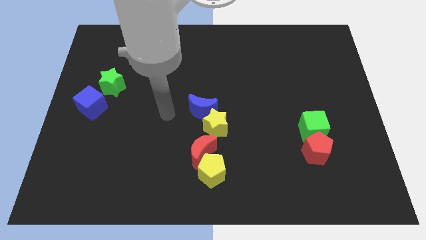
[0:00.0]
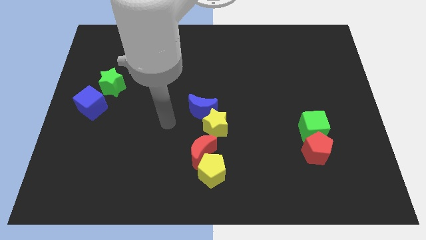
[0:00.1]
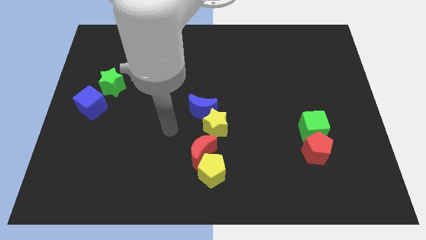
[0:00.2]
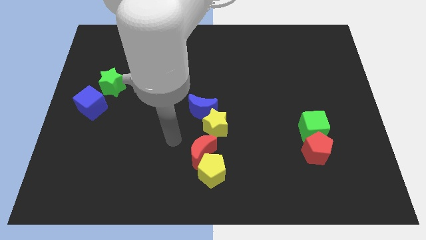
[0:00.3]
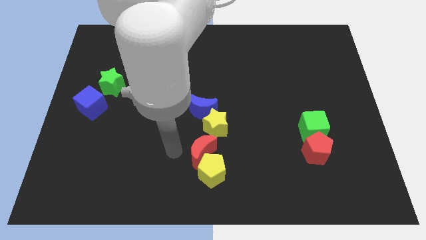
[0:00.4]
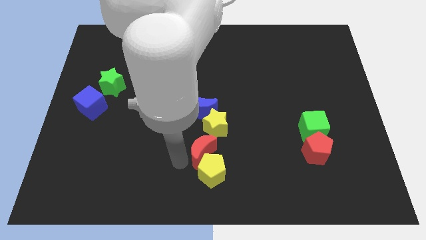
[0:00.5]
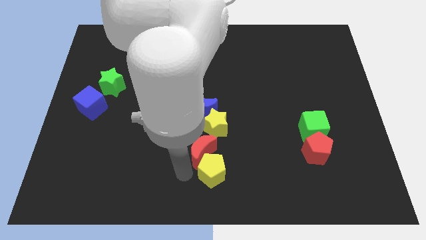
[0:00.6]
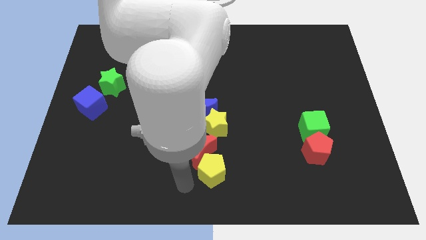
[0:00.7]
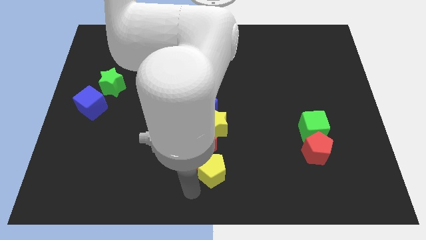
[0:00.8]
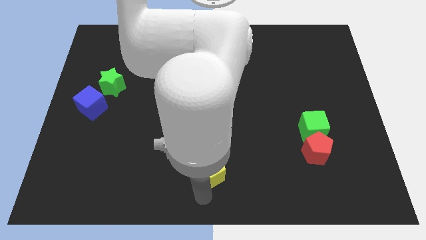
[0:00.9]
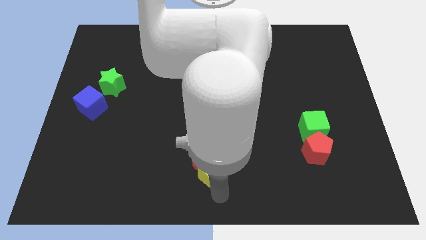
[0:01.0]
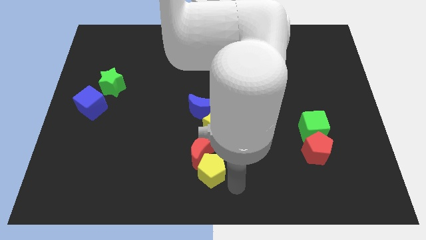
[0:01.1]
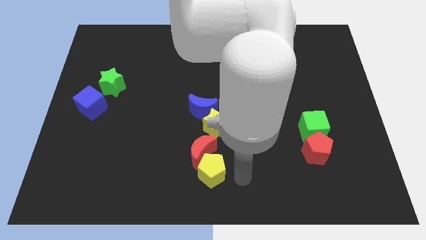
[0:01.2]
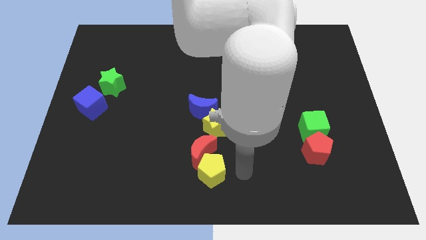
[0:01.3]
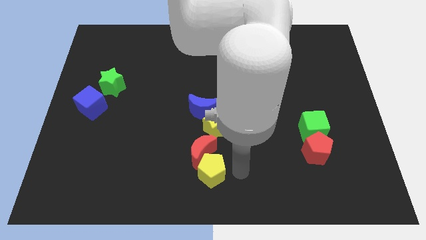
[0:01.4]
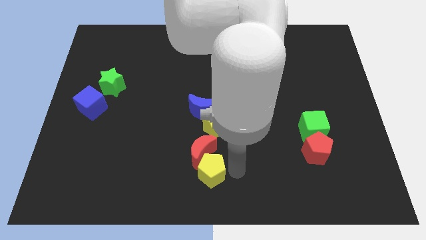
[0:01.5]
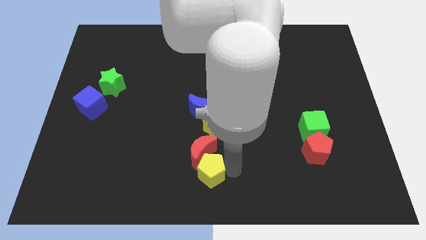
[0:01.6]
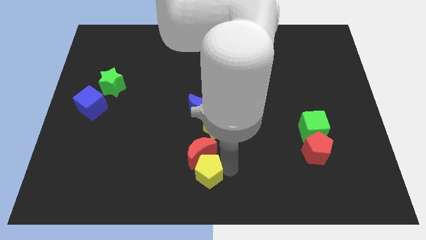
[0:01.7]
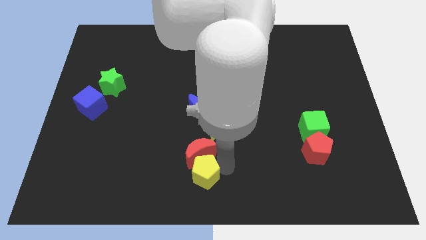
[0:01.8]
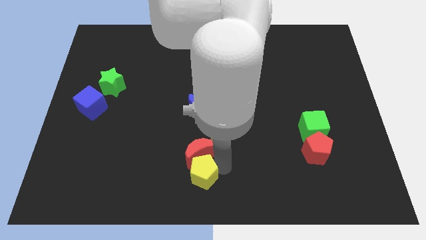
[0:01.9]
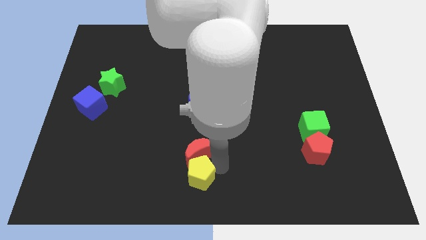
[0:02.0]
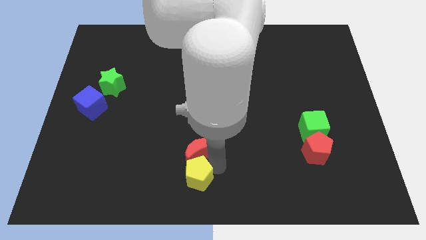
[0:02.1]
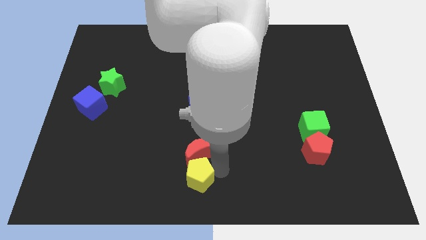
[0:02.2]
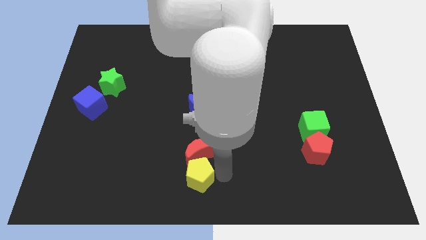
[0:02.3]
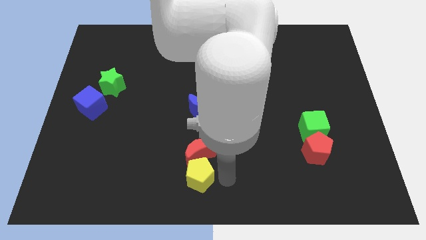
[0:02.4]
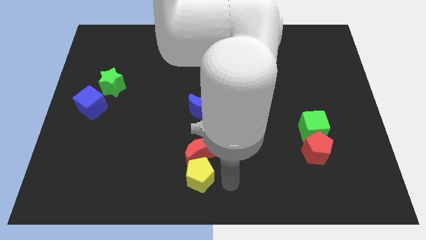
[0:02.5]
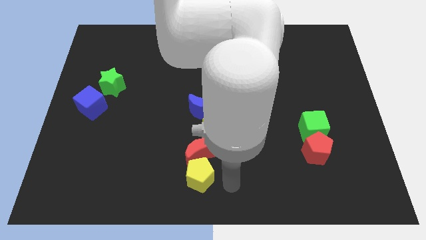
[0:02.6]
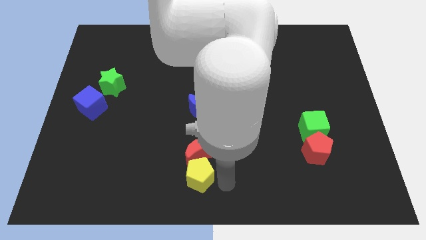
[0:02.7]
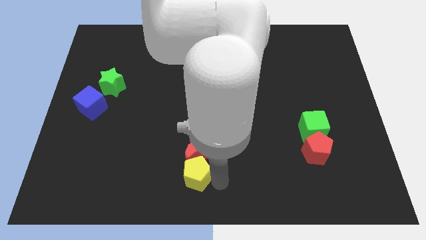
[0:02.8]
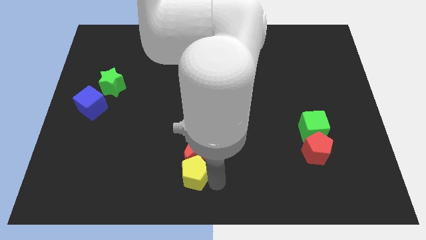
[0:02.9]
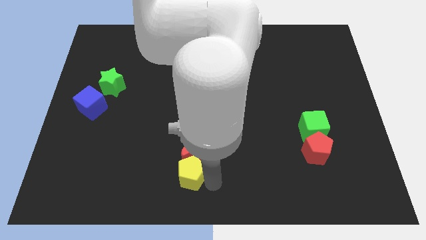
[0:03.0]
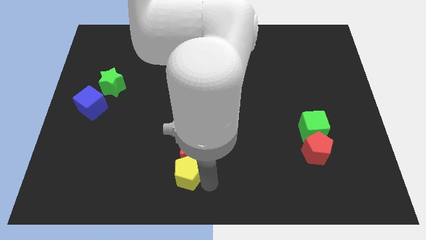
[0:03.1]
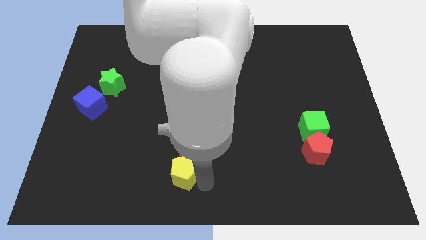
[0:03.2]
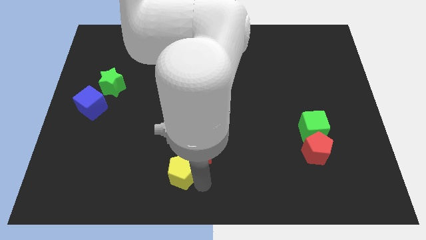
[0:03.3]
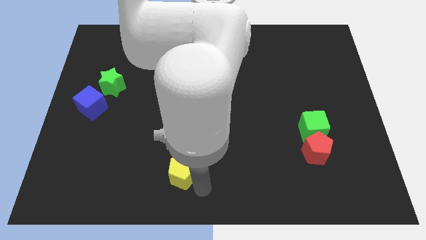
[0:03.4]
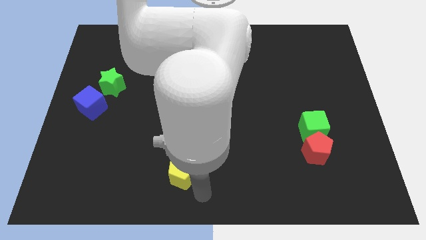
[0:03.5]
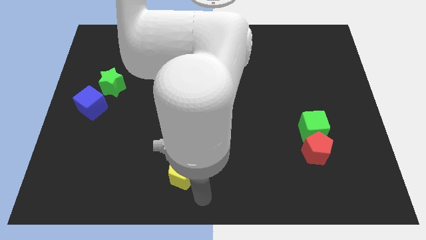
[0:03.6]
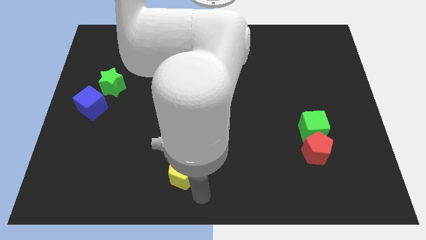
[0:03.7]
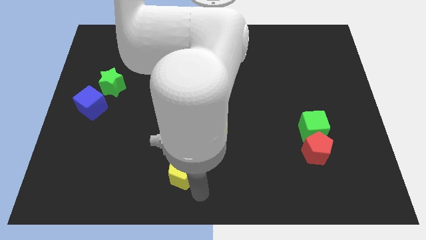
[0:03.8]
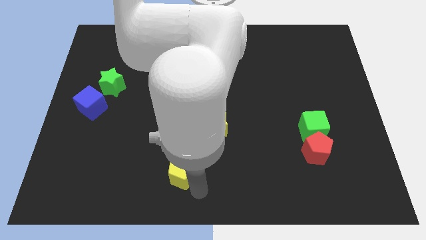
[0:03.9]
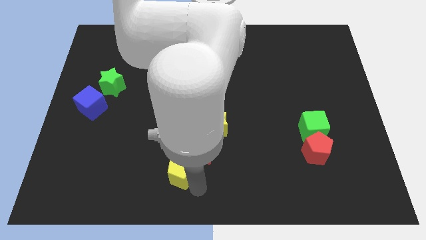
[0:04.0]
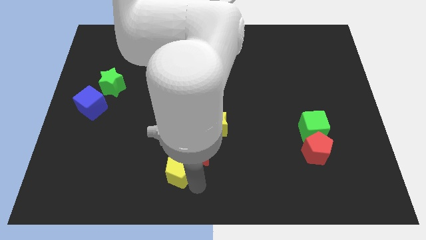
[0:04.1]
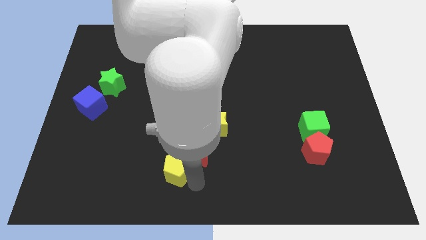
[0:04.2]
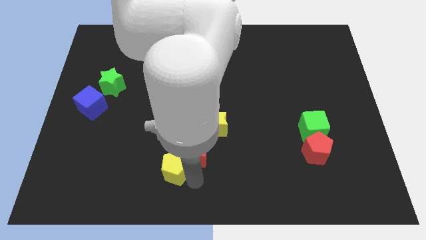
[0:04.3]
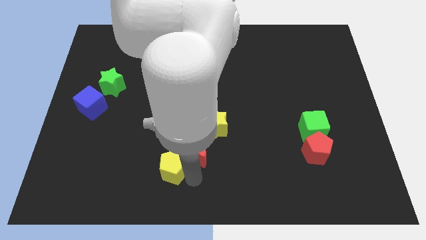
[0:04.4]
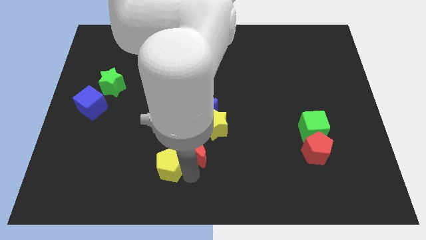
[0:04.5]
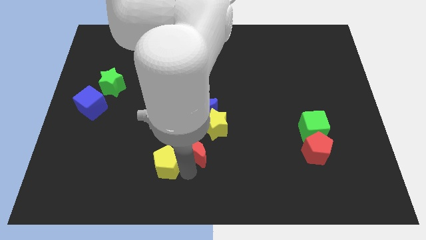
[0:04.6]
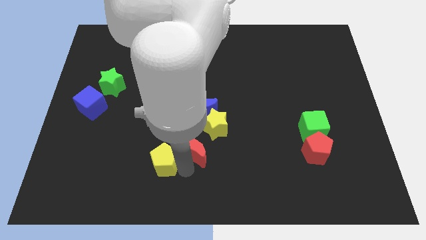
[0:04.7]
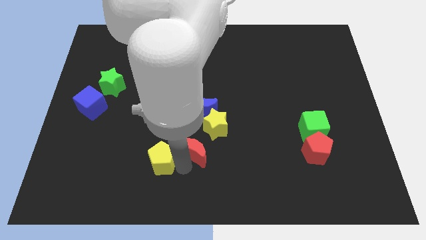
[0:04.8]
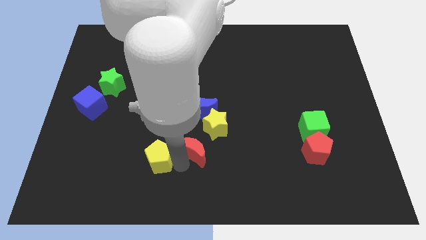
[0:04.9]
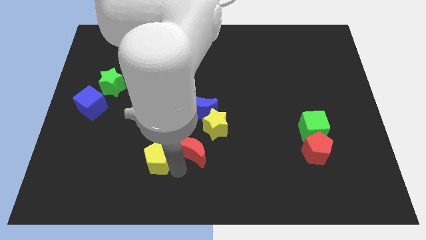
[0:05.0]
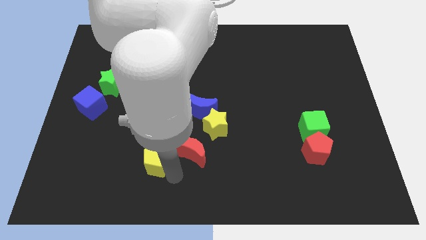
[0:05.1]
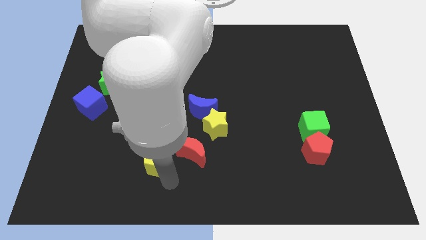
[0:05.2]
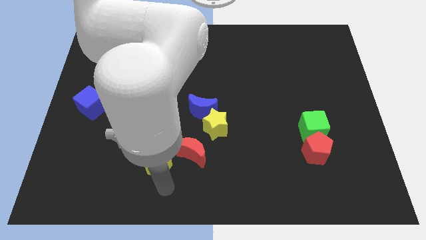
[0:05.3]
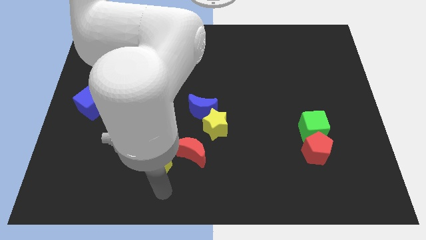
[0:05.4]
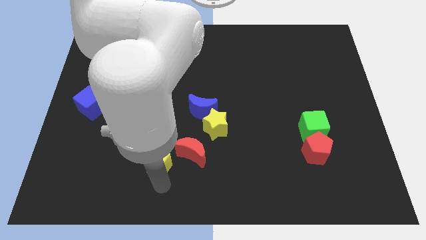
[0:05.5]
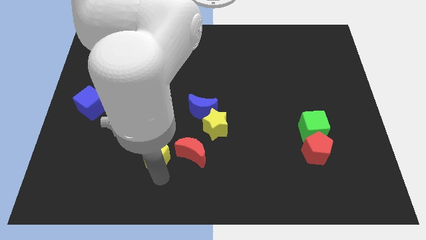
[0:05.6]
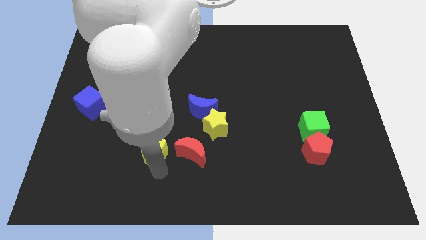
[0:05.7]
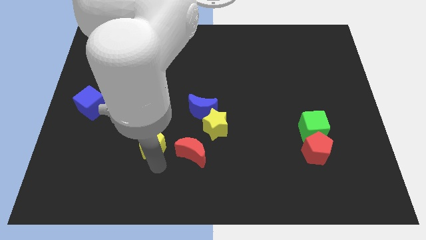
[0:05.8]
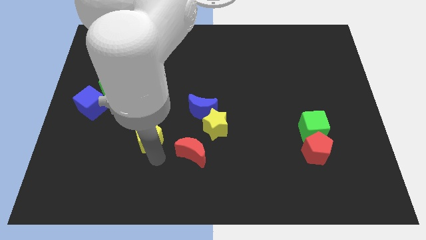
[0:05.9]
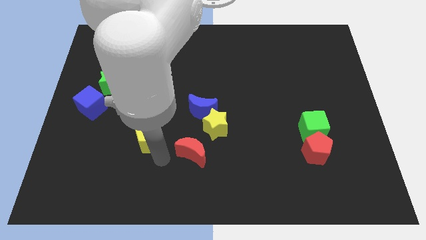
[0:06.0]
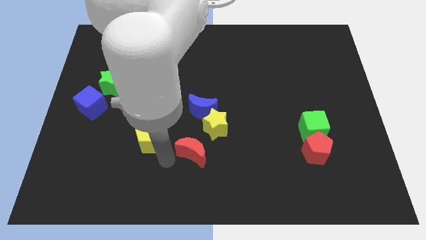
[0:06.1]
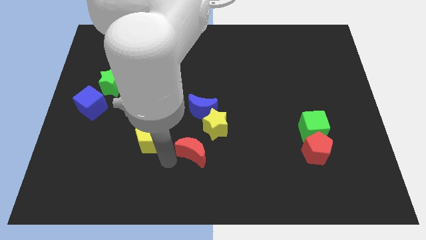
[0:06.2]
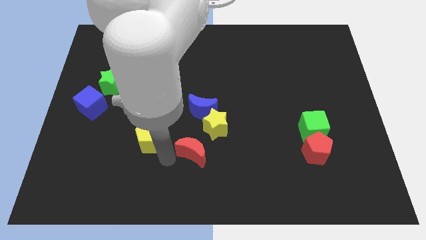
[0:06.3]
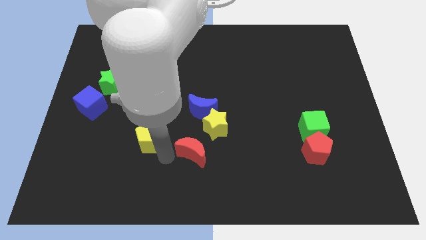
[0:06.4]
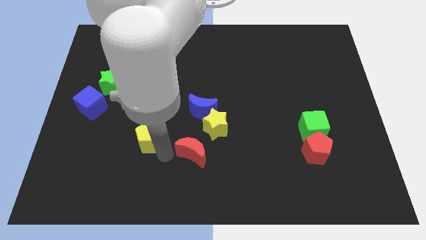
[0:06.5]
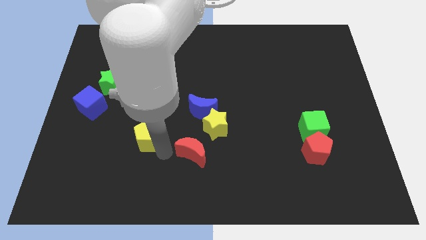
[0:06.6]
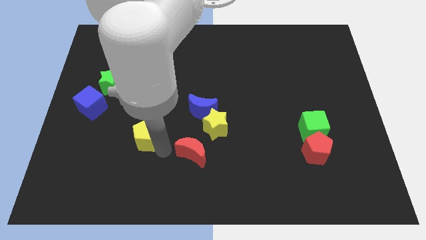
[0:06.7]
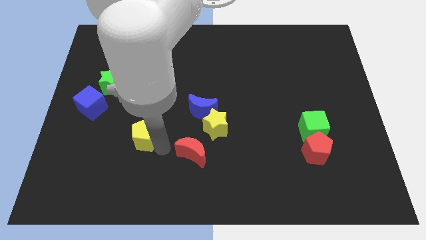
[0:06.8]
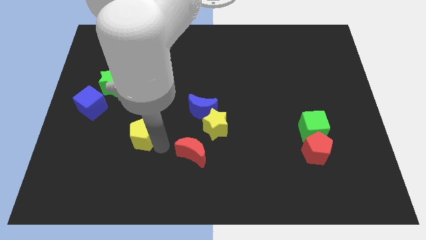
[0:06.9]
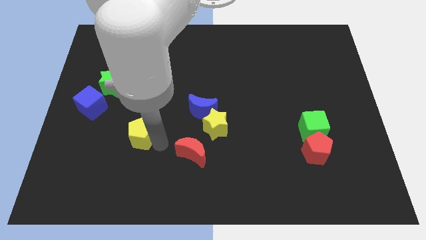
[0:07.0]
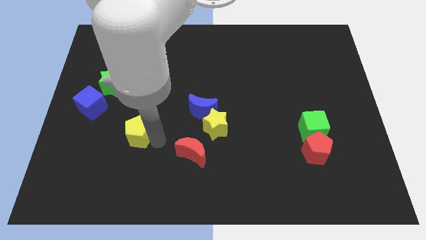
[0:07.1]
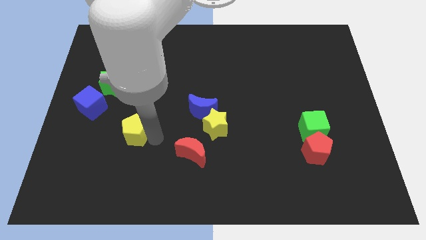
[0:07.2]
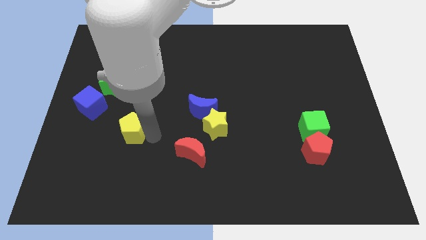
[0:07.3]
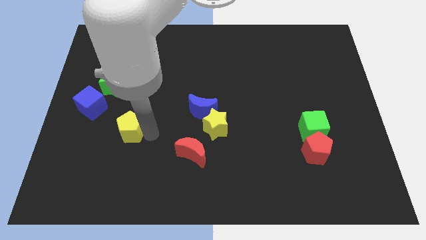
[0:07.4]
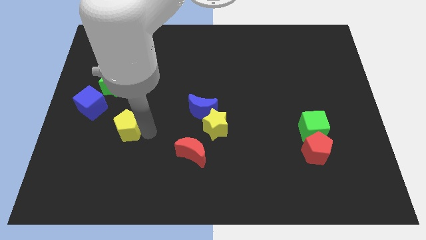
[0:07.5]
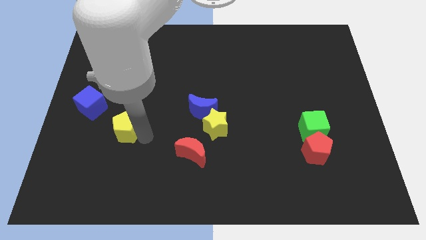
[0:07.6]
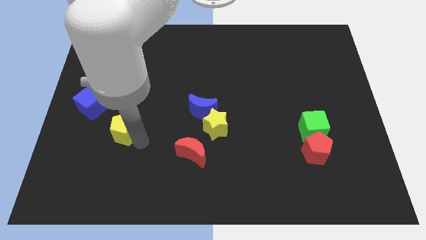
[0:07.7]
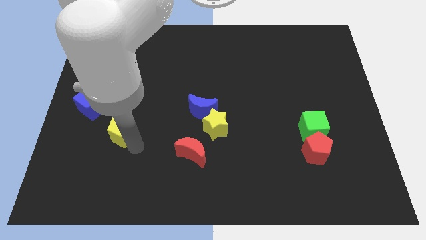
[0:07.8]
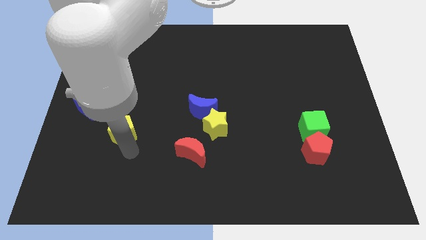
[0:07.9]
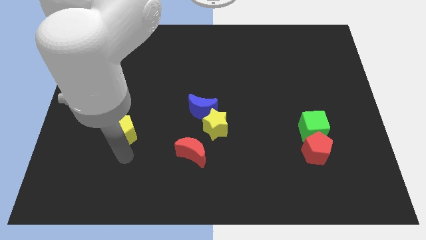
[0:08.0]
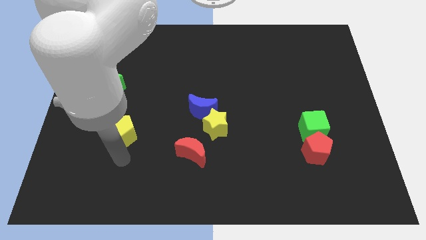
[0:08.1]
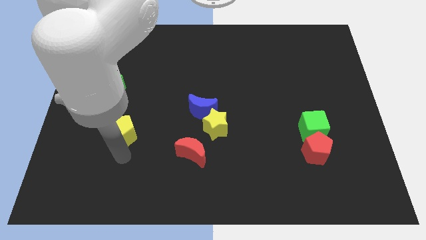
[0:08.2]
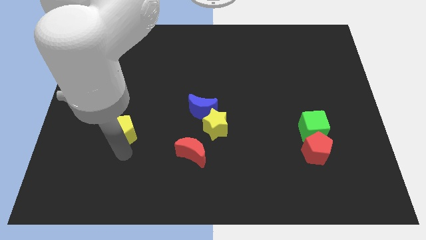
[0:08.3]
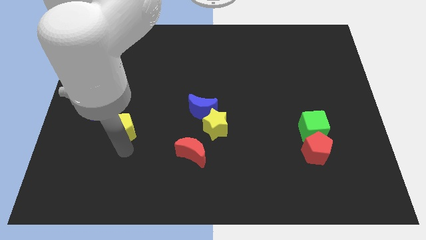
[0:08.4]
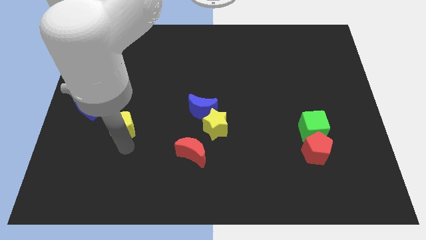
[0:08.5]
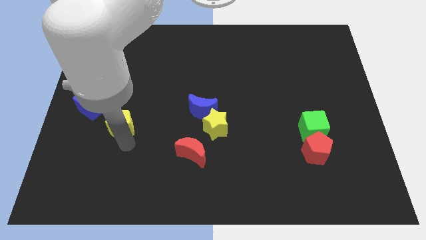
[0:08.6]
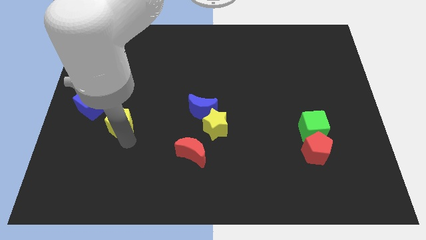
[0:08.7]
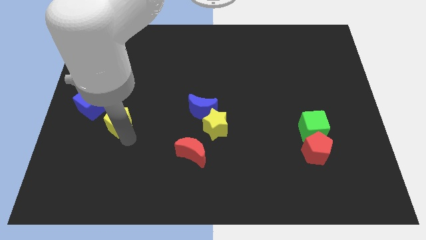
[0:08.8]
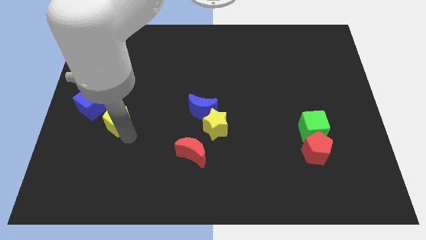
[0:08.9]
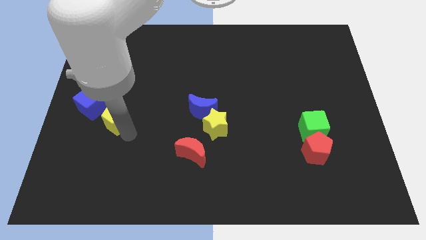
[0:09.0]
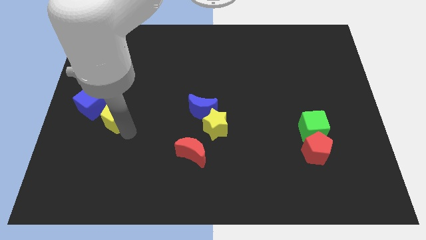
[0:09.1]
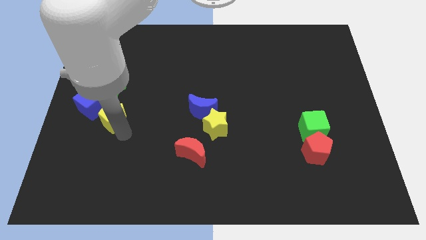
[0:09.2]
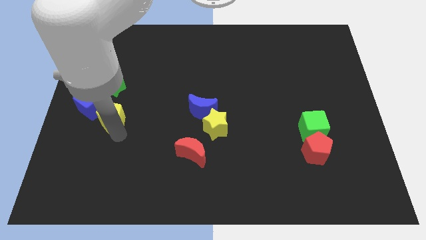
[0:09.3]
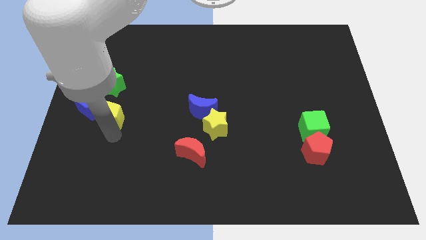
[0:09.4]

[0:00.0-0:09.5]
push the yellow pentagon to the blue cube
